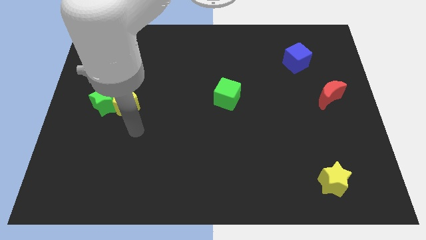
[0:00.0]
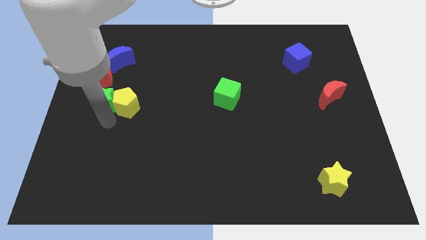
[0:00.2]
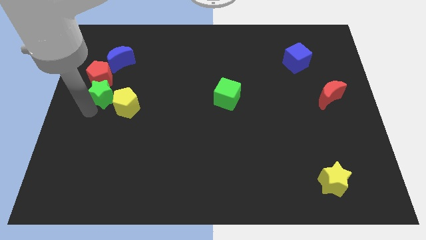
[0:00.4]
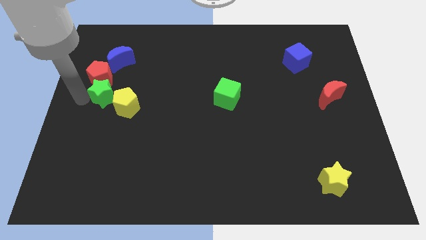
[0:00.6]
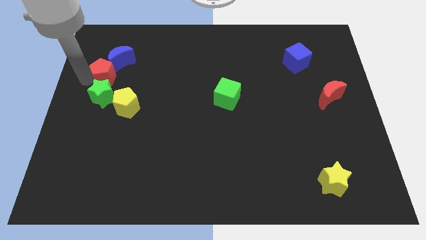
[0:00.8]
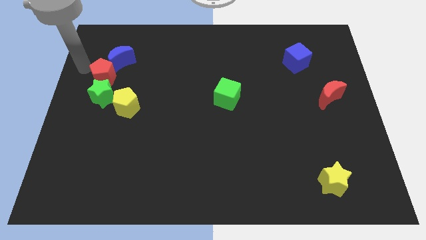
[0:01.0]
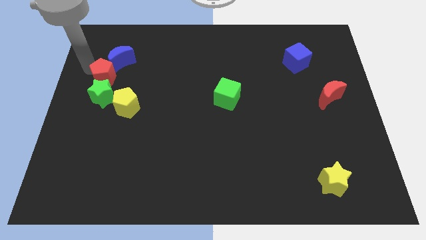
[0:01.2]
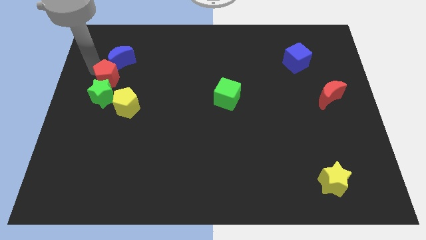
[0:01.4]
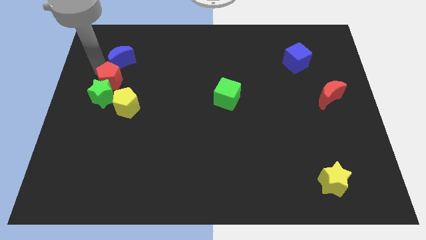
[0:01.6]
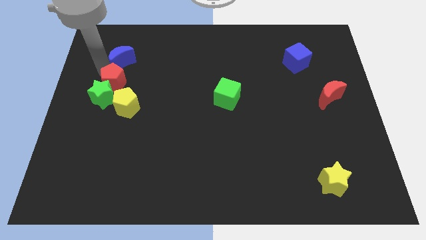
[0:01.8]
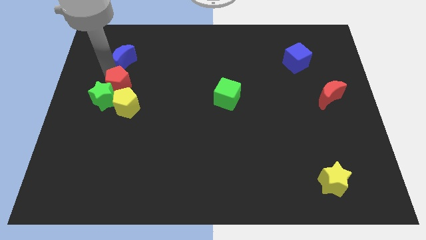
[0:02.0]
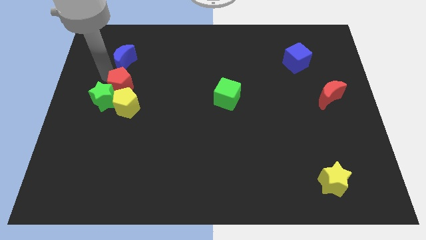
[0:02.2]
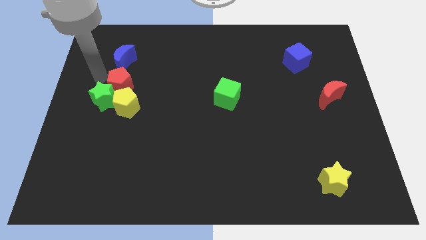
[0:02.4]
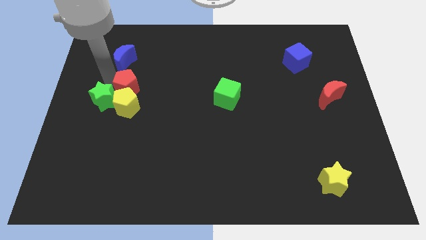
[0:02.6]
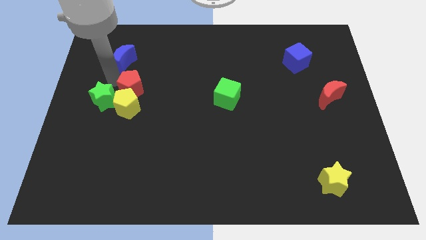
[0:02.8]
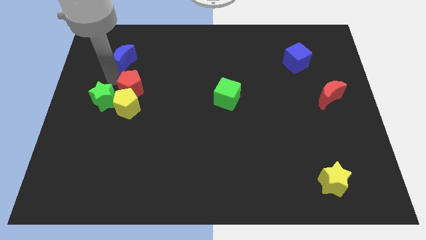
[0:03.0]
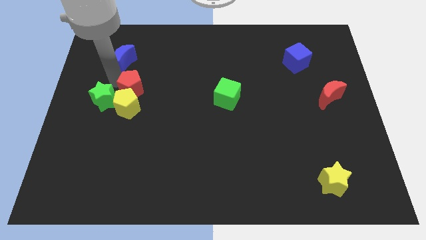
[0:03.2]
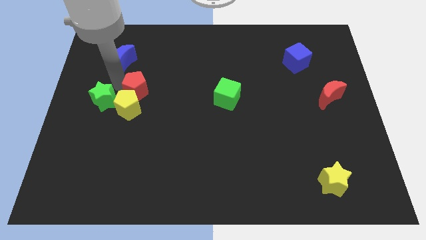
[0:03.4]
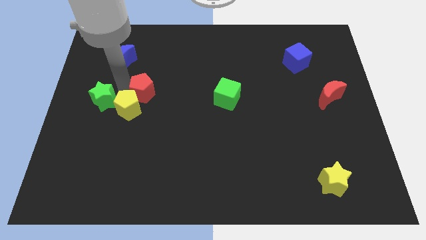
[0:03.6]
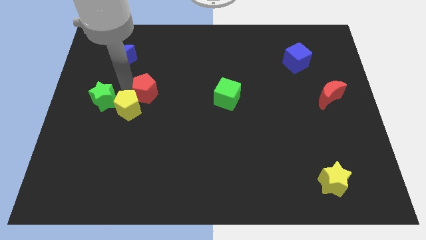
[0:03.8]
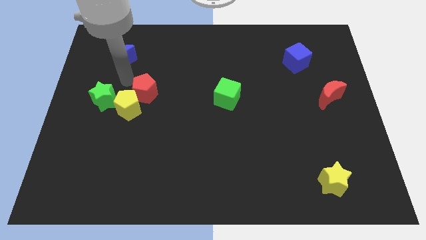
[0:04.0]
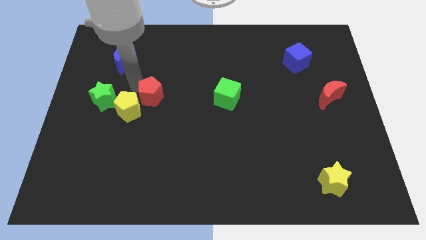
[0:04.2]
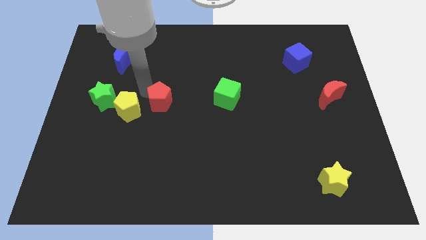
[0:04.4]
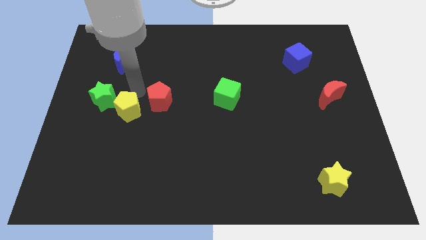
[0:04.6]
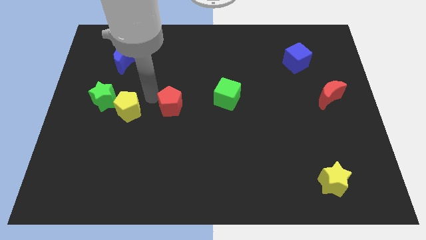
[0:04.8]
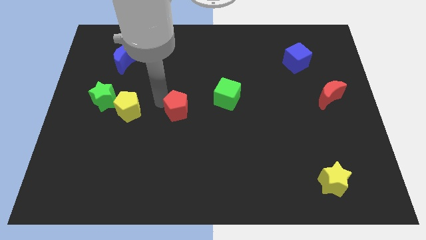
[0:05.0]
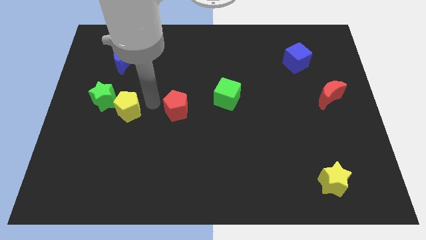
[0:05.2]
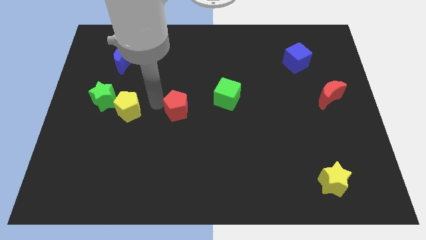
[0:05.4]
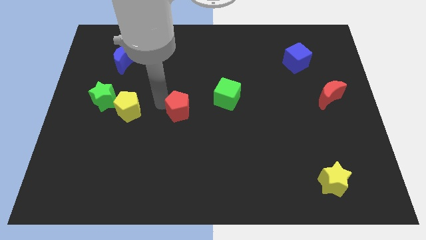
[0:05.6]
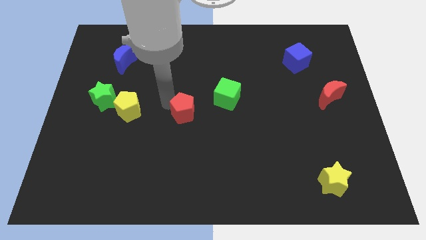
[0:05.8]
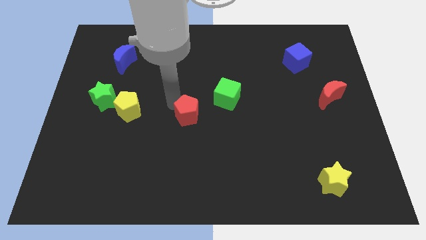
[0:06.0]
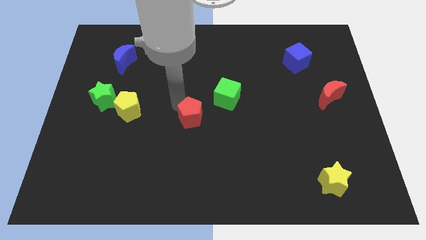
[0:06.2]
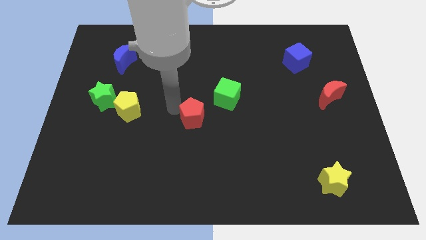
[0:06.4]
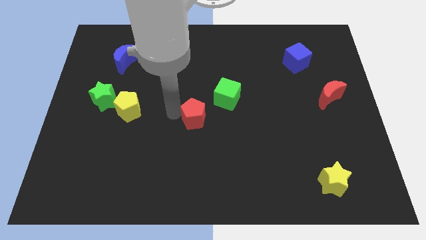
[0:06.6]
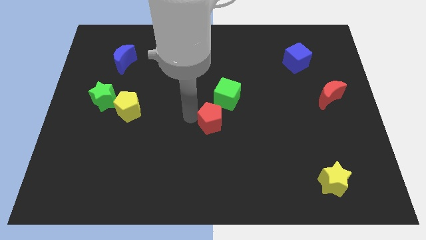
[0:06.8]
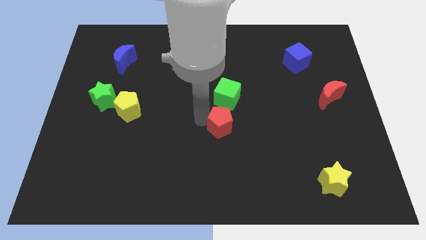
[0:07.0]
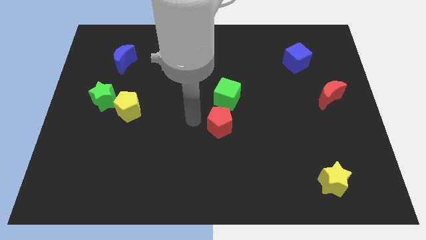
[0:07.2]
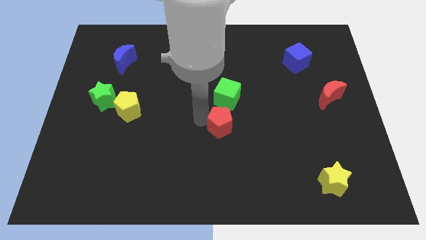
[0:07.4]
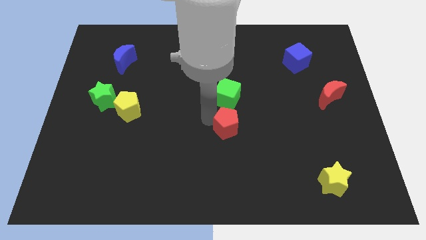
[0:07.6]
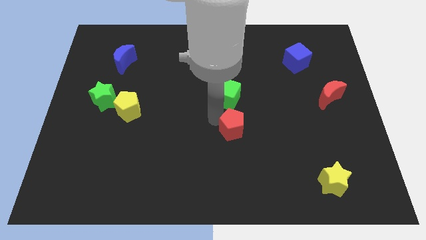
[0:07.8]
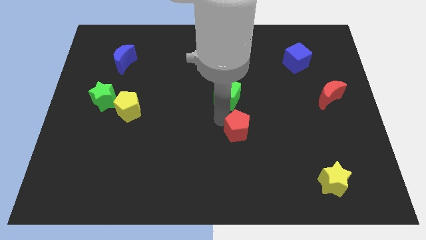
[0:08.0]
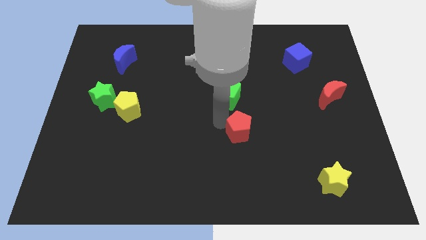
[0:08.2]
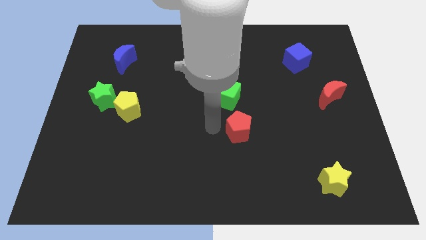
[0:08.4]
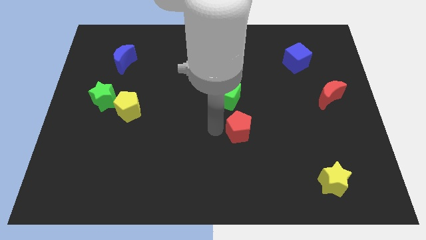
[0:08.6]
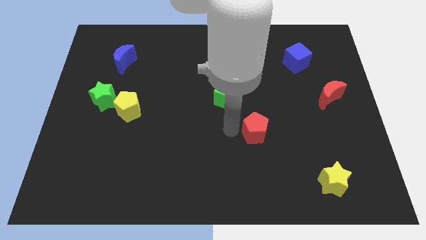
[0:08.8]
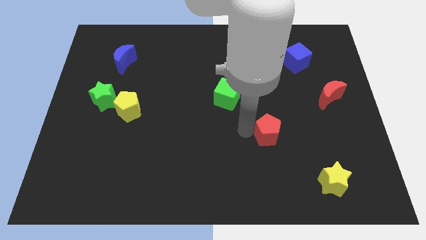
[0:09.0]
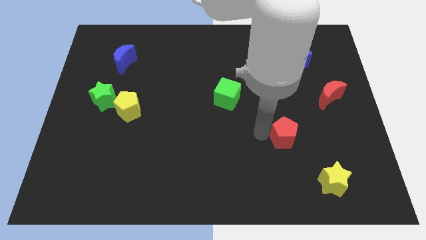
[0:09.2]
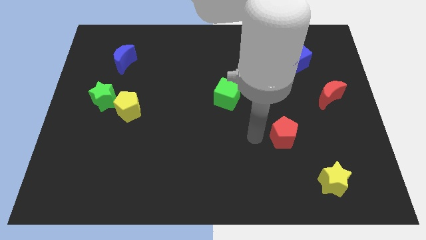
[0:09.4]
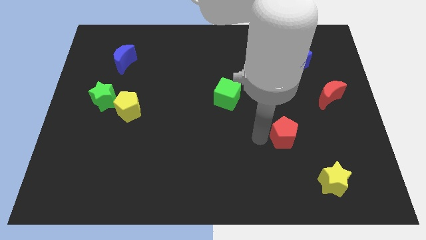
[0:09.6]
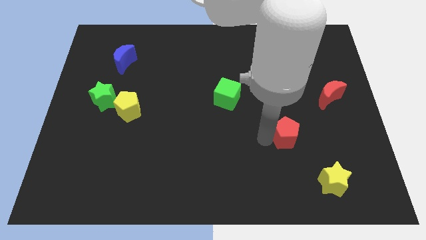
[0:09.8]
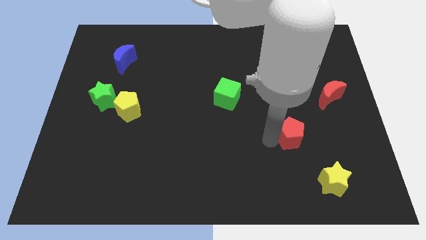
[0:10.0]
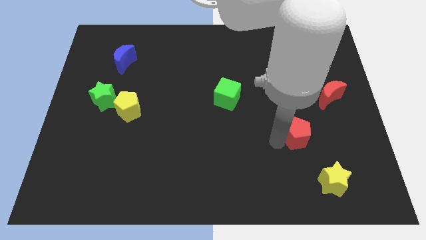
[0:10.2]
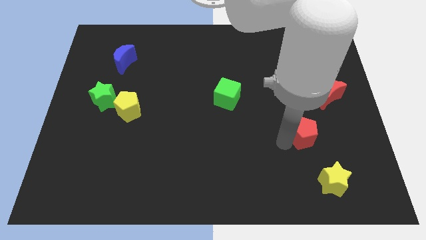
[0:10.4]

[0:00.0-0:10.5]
move the red pentagon to the top of the yellow star

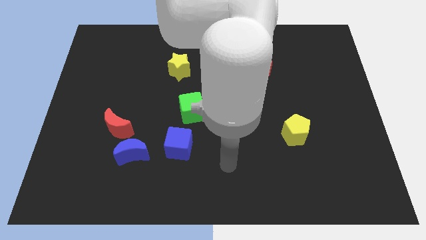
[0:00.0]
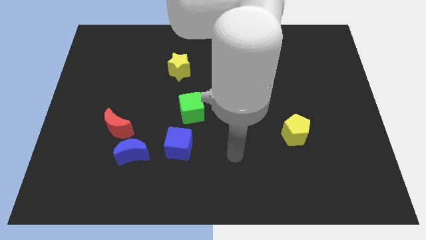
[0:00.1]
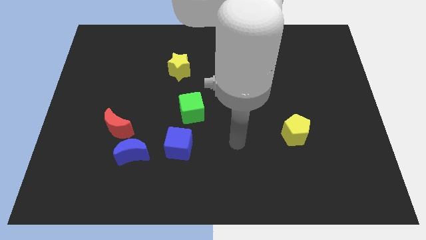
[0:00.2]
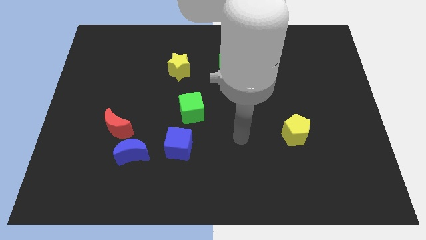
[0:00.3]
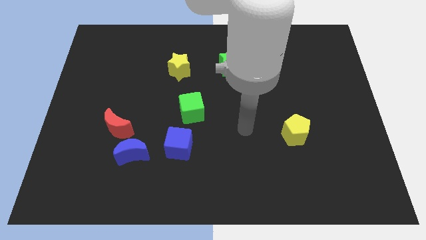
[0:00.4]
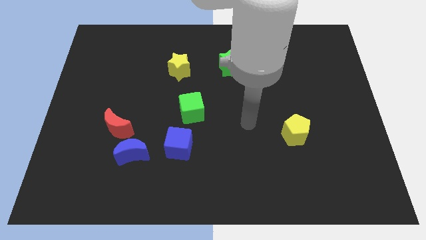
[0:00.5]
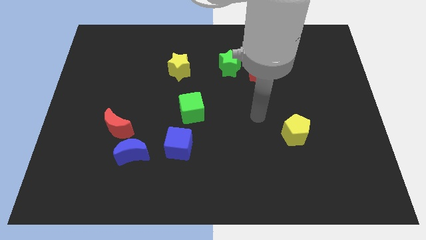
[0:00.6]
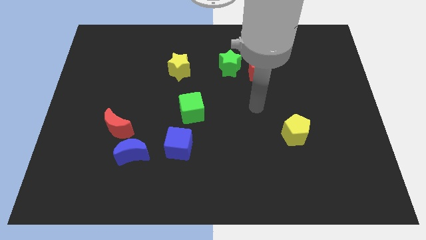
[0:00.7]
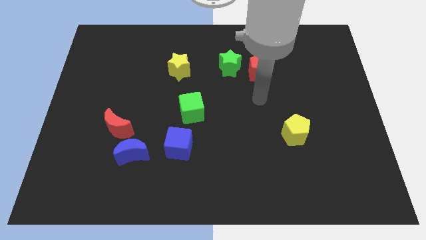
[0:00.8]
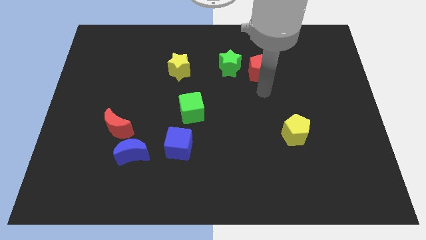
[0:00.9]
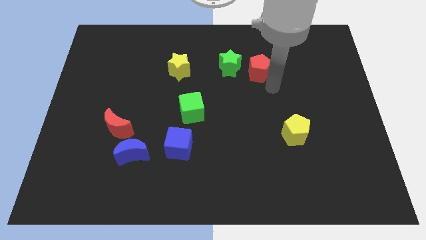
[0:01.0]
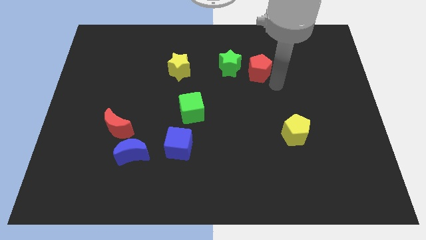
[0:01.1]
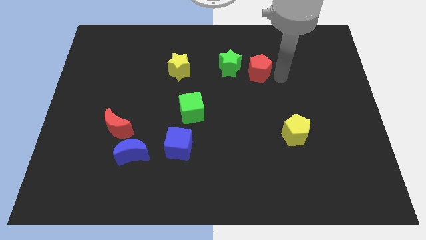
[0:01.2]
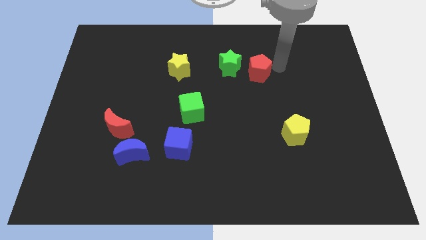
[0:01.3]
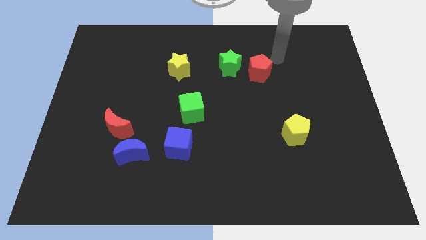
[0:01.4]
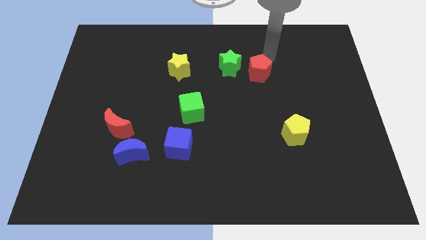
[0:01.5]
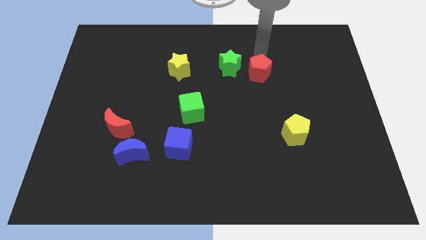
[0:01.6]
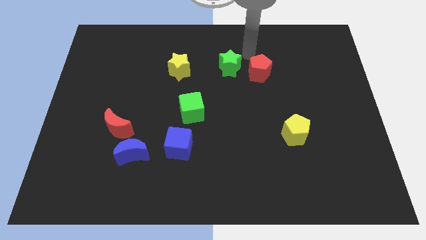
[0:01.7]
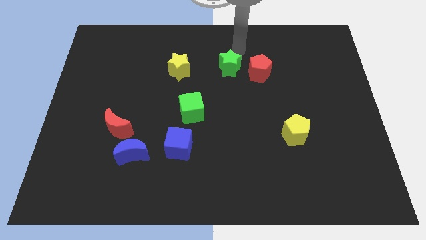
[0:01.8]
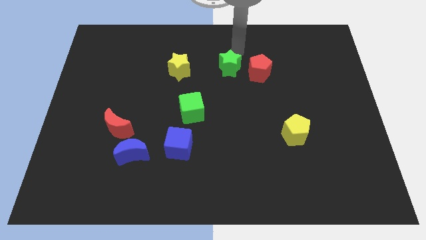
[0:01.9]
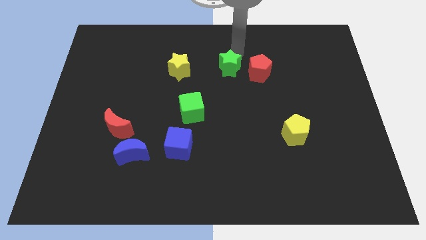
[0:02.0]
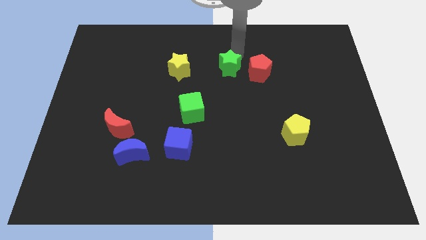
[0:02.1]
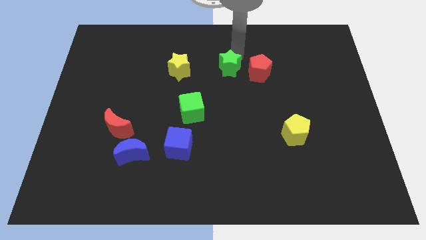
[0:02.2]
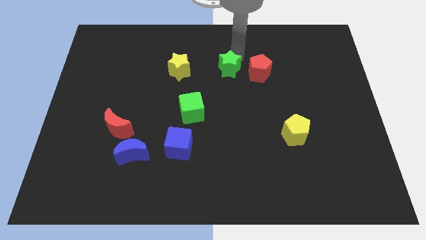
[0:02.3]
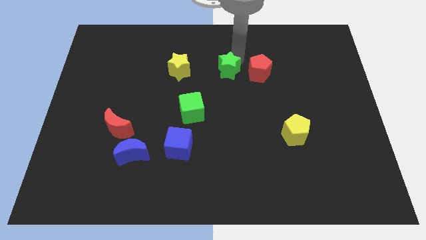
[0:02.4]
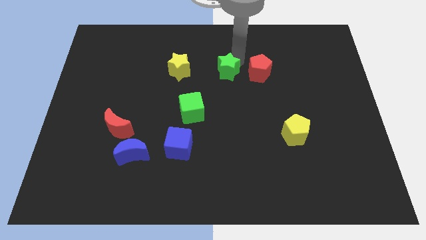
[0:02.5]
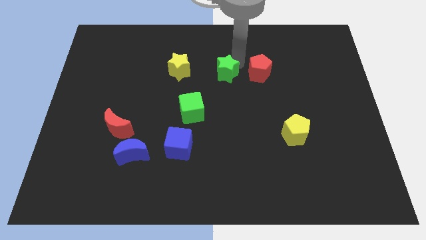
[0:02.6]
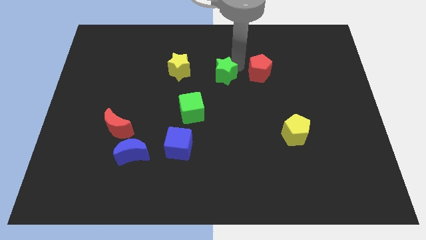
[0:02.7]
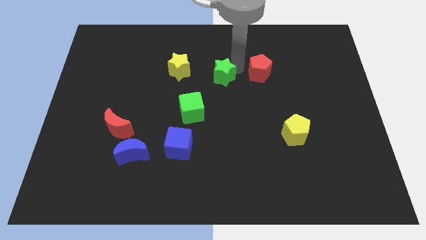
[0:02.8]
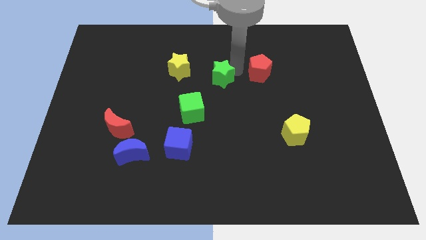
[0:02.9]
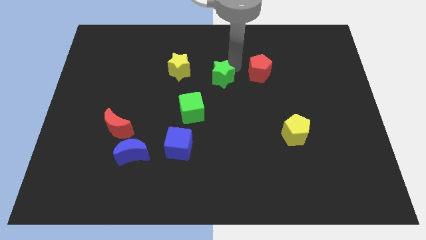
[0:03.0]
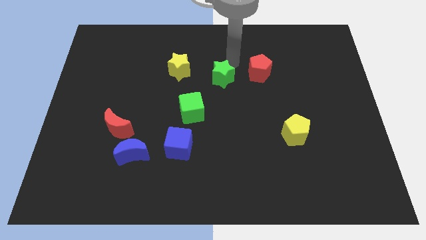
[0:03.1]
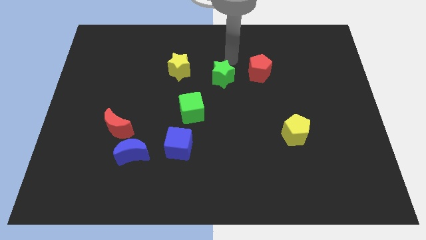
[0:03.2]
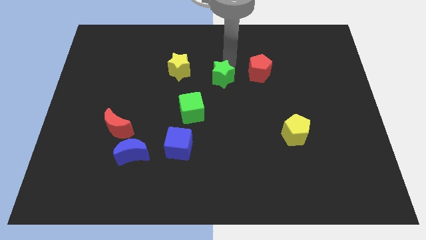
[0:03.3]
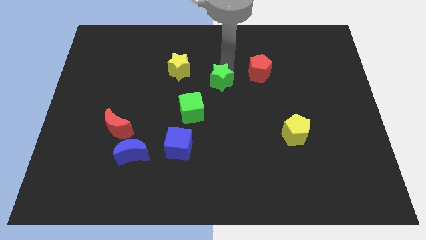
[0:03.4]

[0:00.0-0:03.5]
put the green star to the top right side of the green cube
